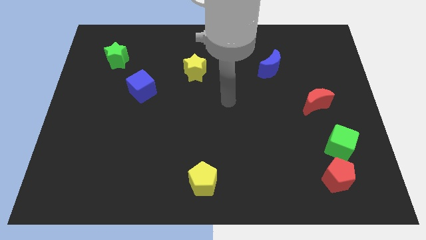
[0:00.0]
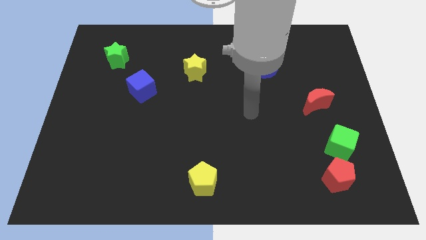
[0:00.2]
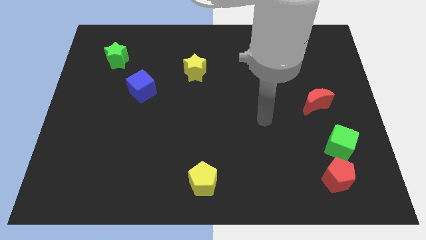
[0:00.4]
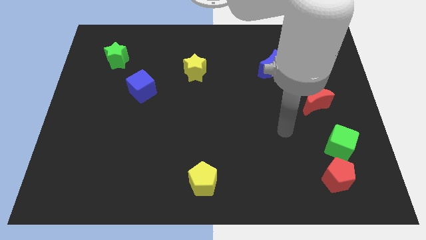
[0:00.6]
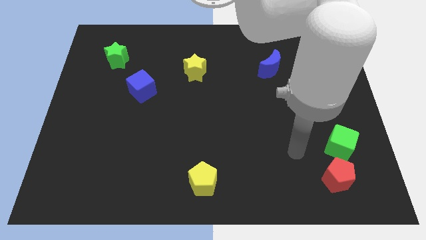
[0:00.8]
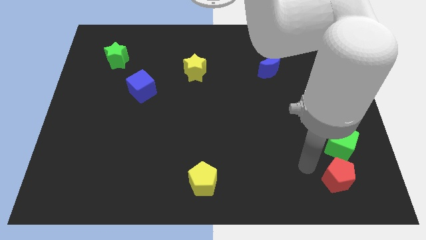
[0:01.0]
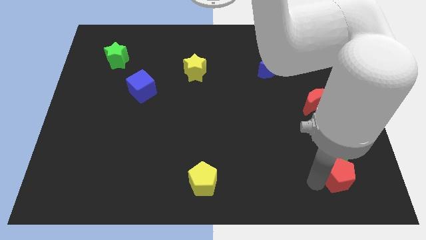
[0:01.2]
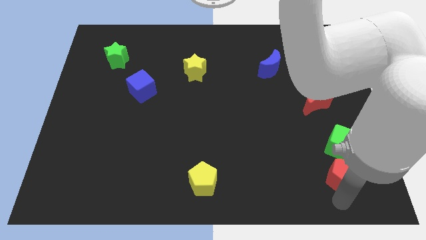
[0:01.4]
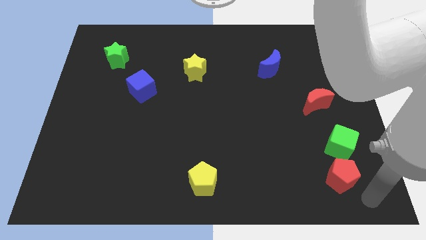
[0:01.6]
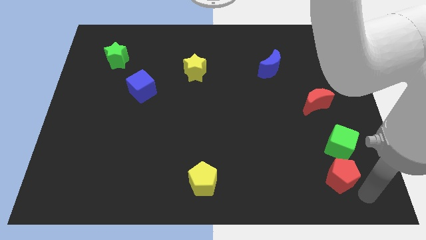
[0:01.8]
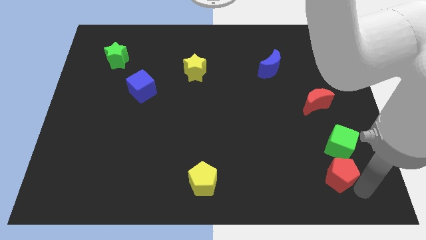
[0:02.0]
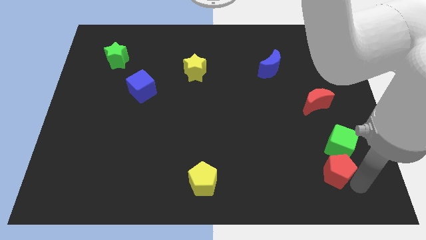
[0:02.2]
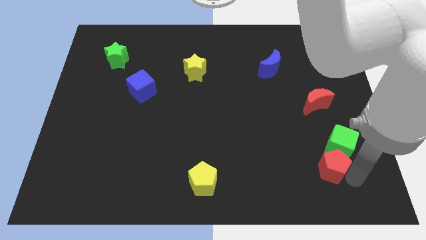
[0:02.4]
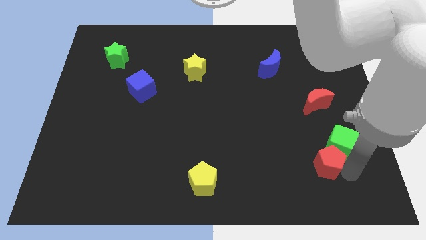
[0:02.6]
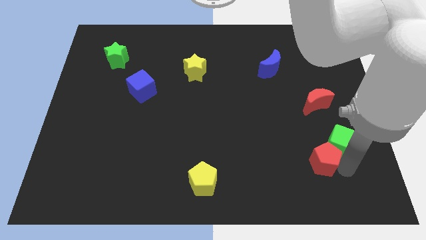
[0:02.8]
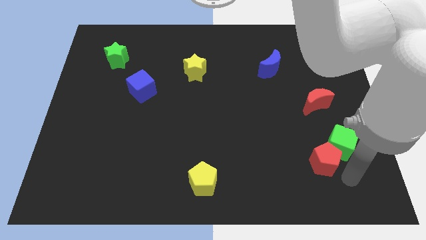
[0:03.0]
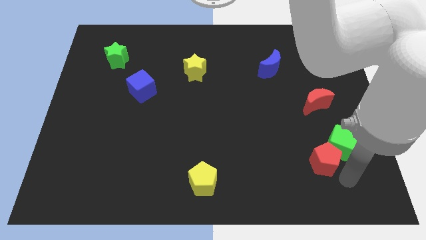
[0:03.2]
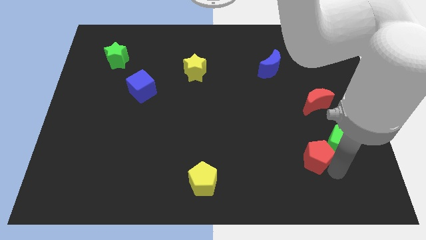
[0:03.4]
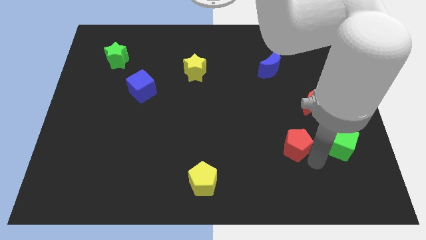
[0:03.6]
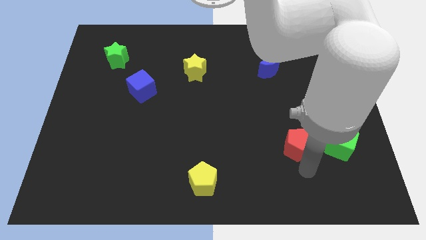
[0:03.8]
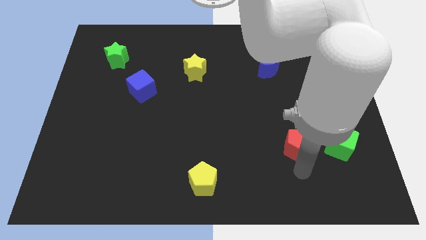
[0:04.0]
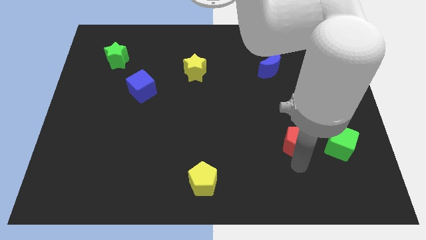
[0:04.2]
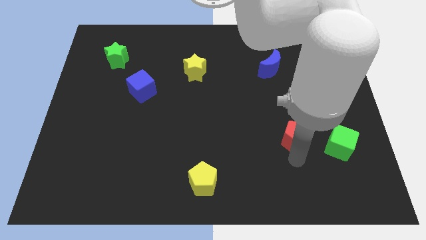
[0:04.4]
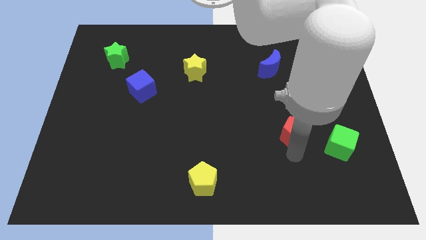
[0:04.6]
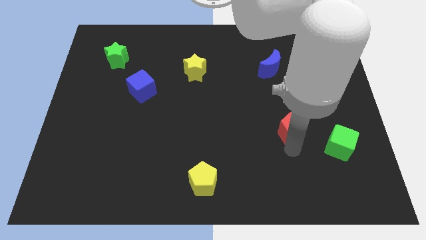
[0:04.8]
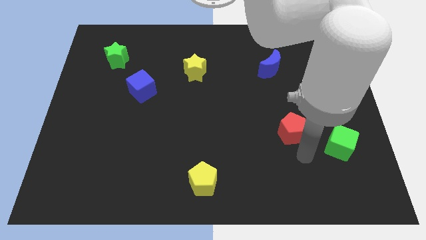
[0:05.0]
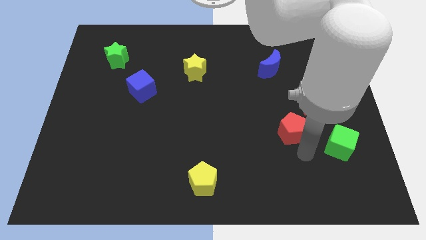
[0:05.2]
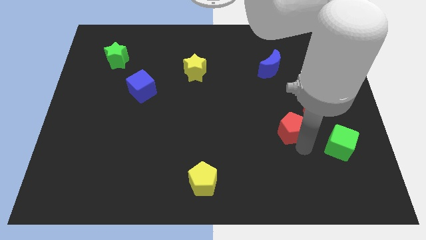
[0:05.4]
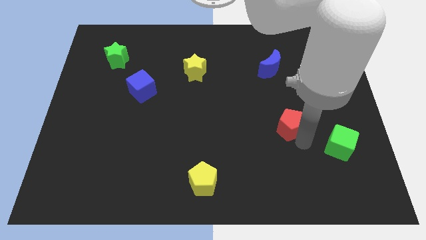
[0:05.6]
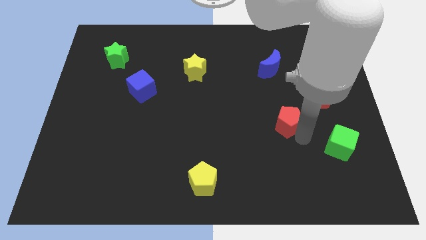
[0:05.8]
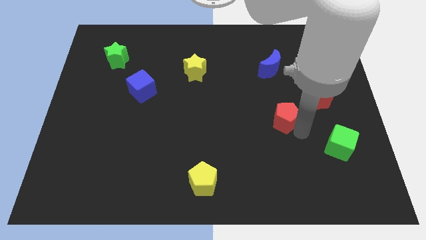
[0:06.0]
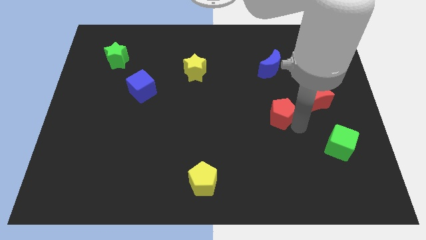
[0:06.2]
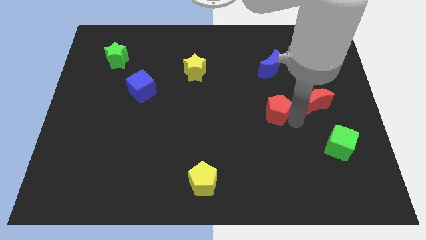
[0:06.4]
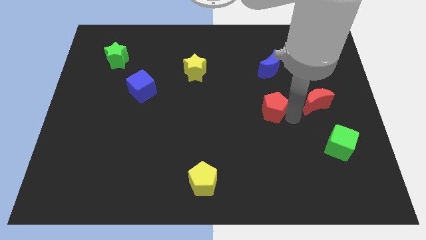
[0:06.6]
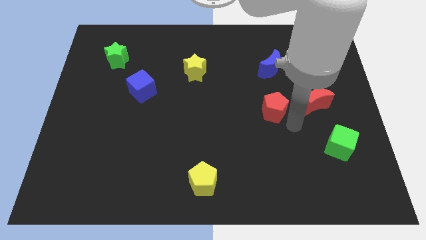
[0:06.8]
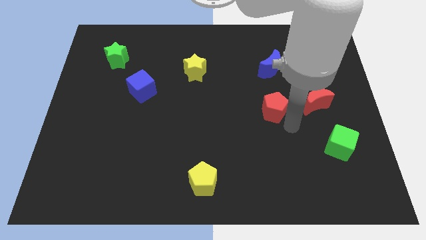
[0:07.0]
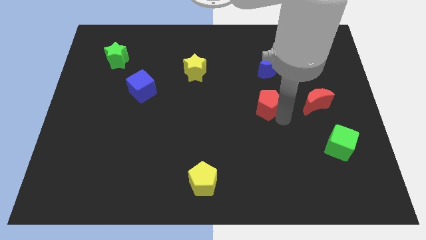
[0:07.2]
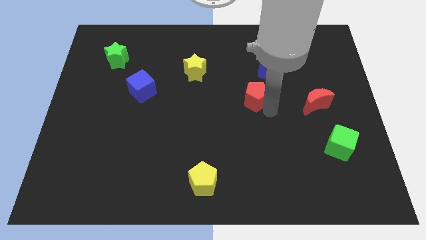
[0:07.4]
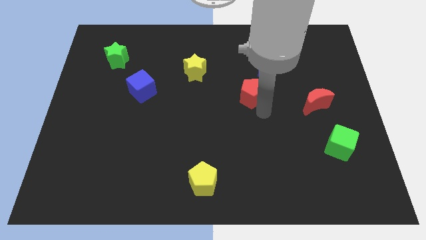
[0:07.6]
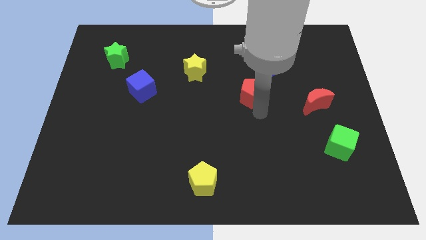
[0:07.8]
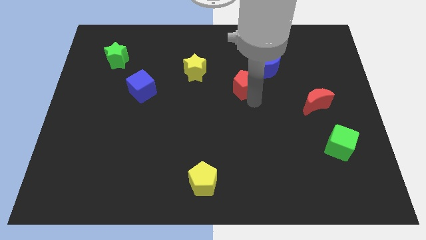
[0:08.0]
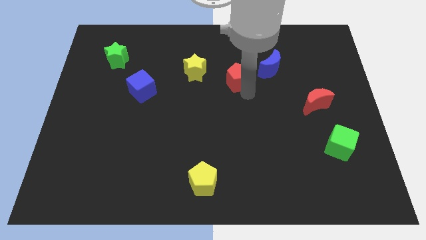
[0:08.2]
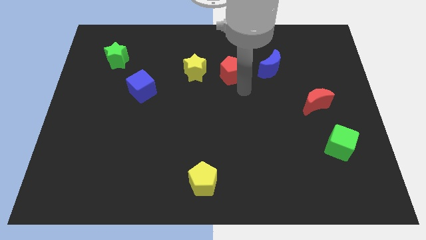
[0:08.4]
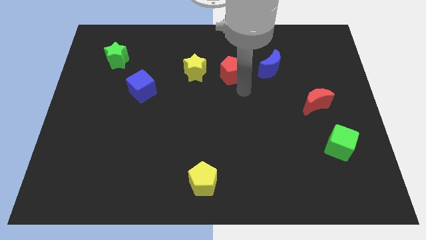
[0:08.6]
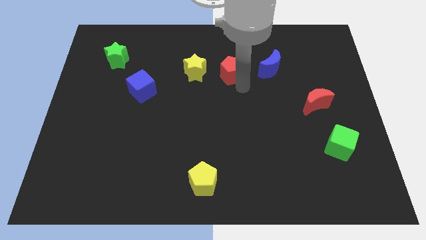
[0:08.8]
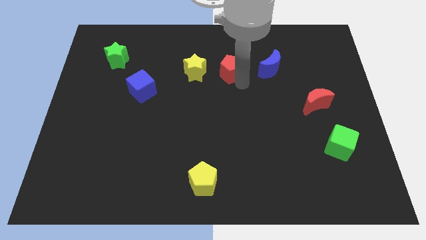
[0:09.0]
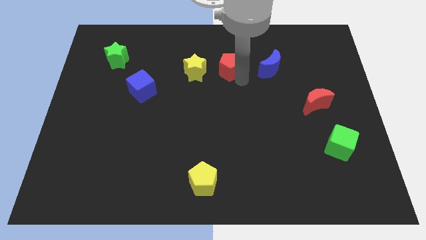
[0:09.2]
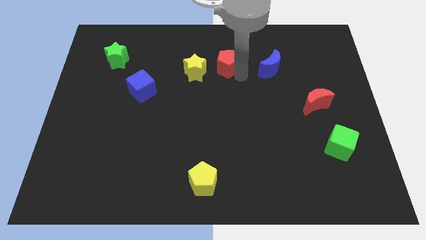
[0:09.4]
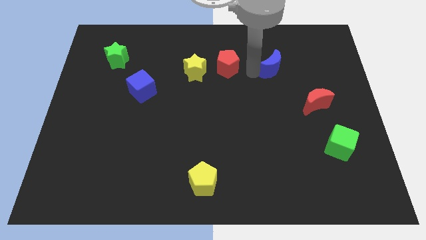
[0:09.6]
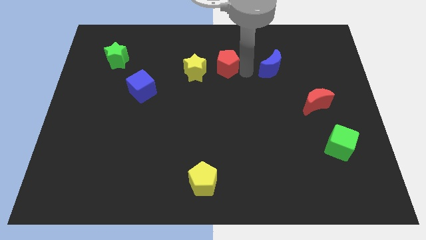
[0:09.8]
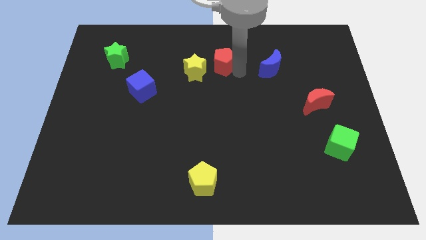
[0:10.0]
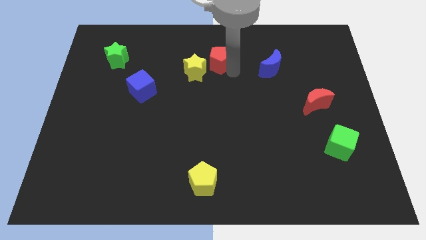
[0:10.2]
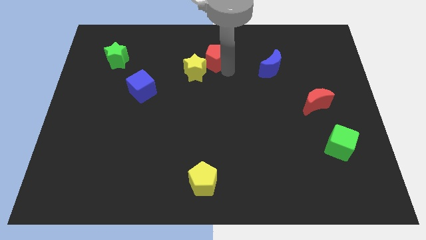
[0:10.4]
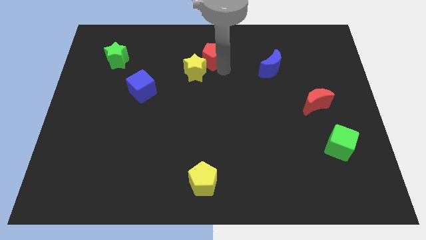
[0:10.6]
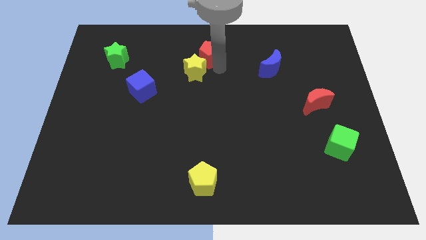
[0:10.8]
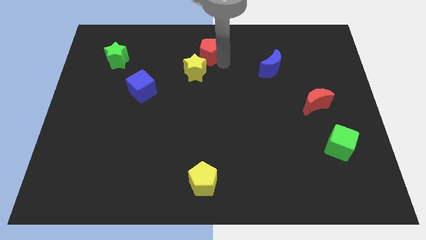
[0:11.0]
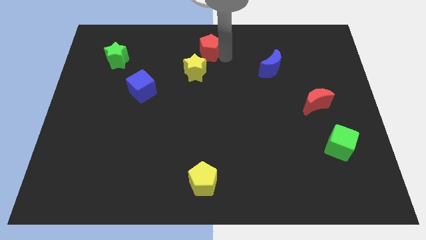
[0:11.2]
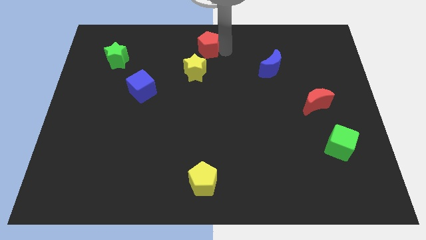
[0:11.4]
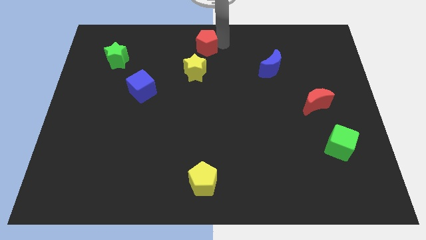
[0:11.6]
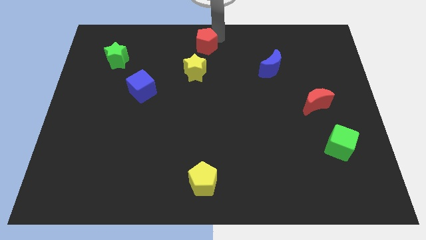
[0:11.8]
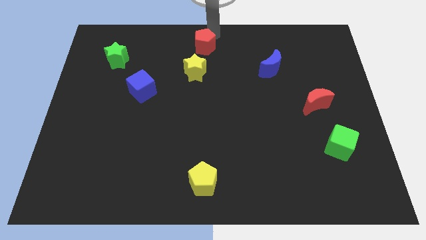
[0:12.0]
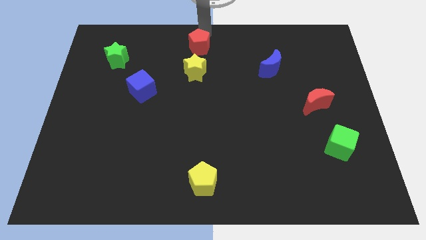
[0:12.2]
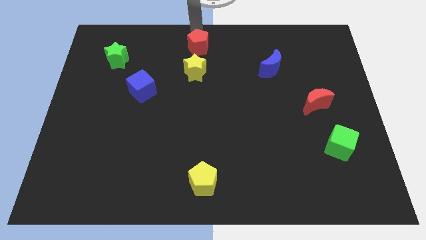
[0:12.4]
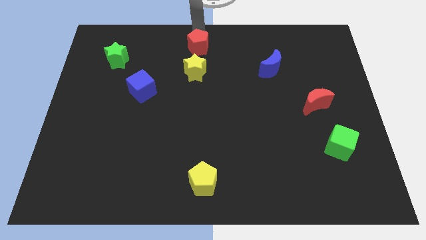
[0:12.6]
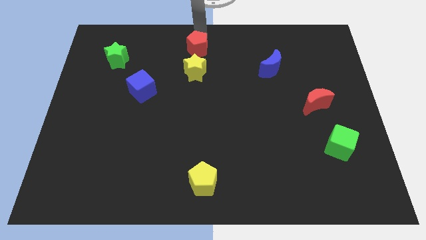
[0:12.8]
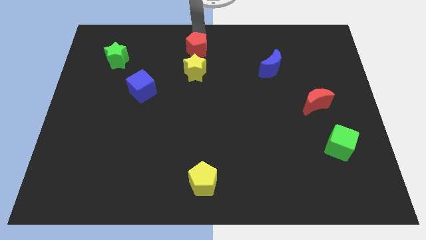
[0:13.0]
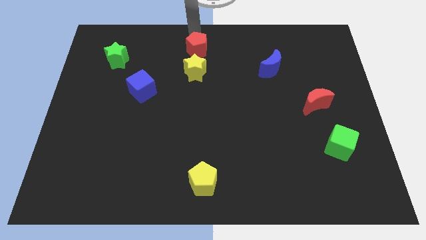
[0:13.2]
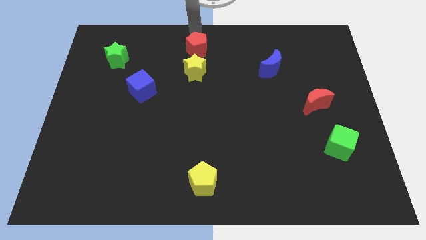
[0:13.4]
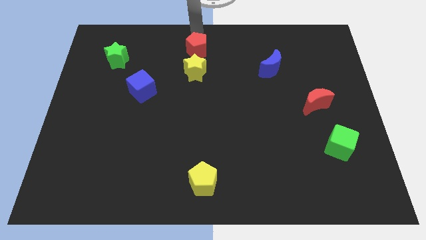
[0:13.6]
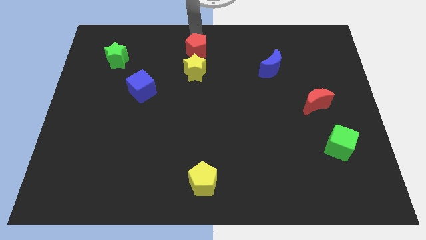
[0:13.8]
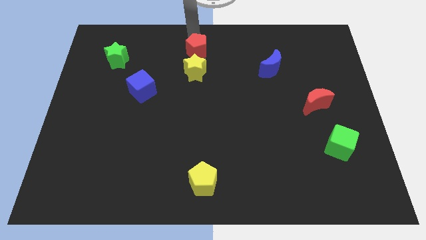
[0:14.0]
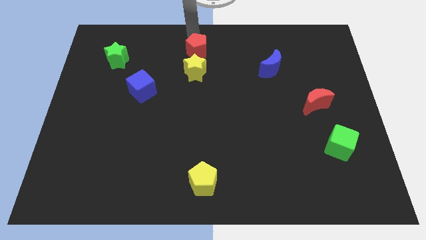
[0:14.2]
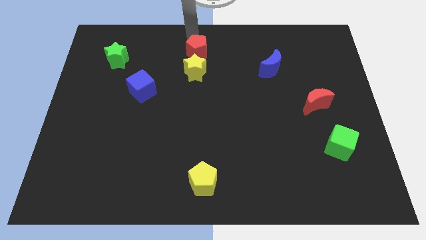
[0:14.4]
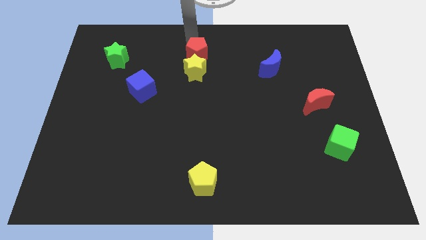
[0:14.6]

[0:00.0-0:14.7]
slide the red pentagon diagonally up and to the left of the yellow star
